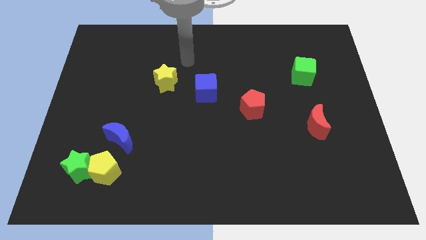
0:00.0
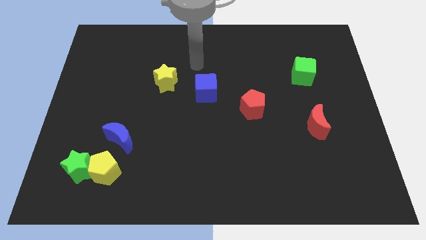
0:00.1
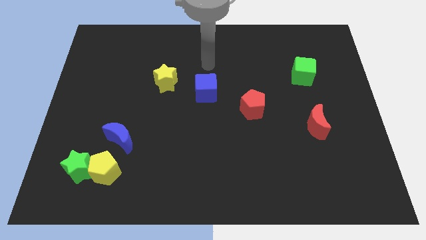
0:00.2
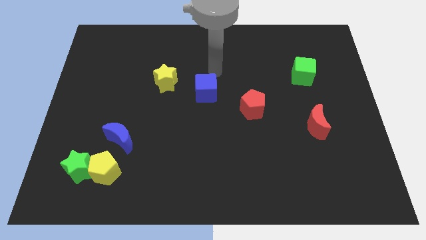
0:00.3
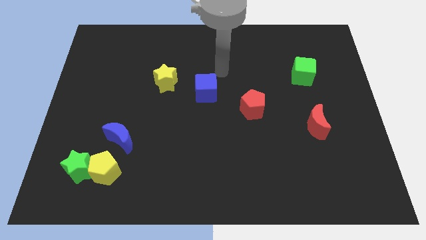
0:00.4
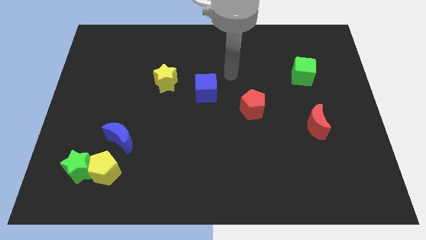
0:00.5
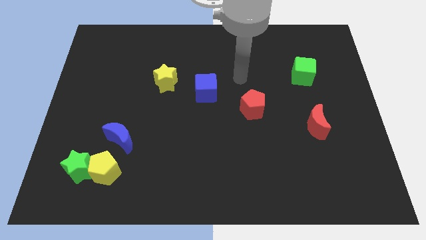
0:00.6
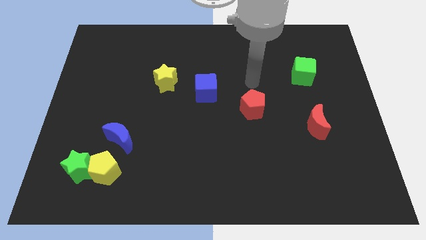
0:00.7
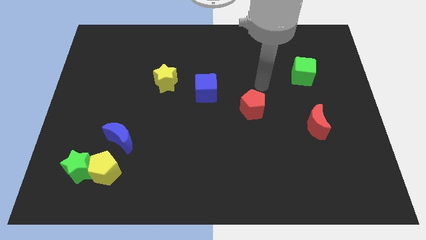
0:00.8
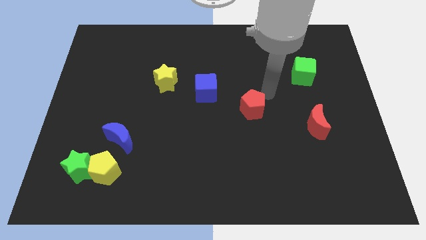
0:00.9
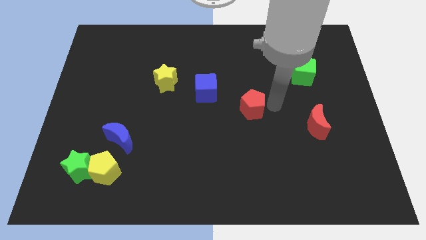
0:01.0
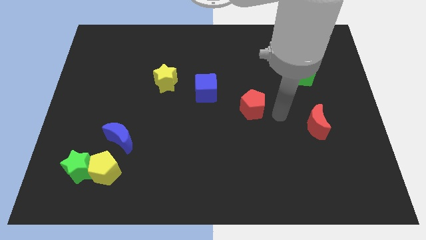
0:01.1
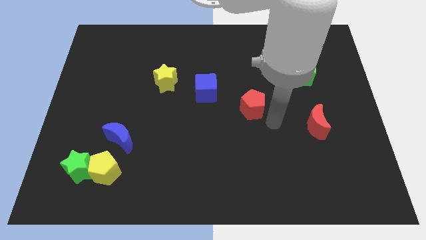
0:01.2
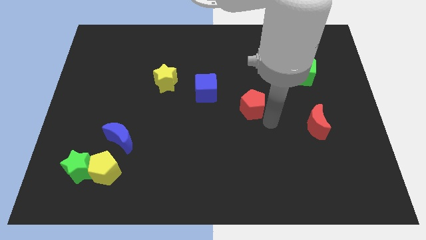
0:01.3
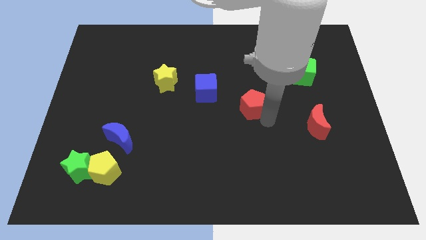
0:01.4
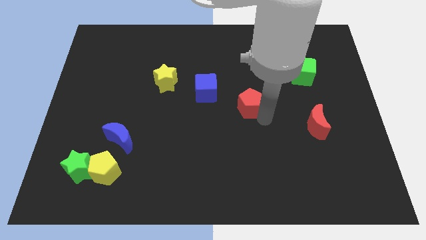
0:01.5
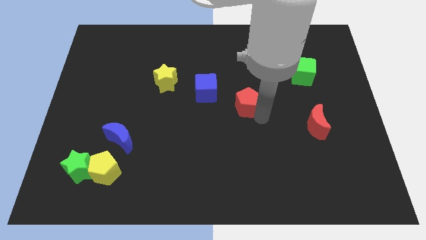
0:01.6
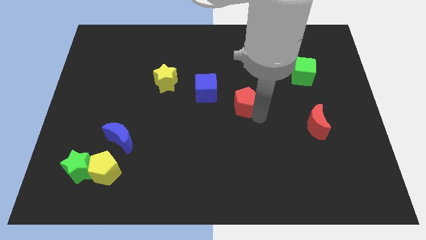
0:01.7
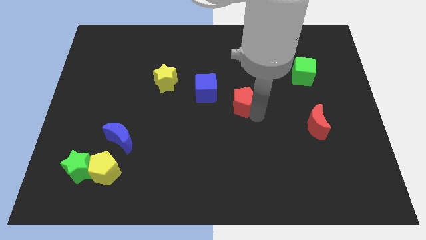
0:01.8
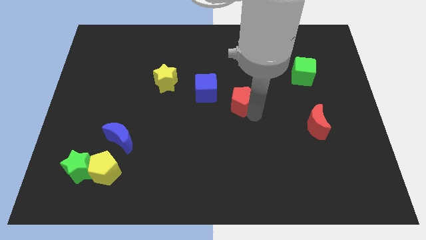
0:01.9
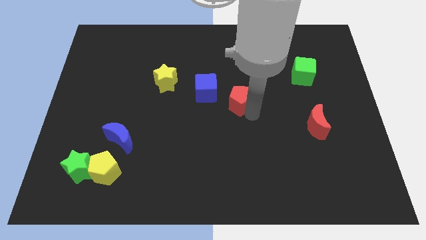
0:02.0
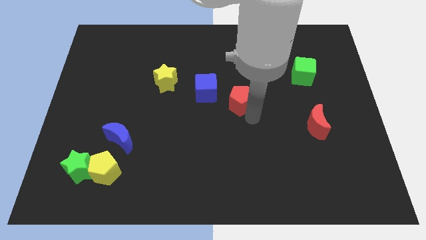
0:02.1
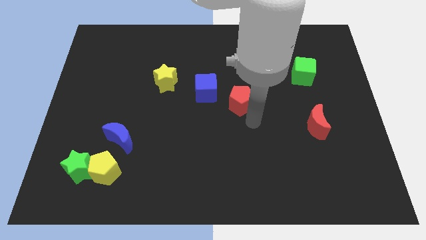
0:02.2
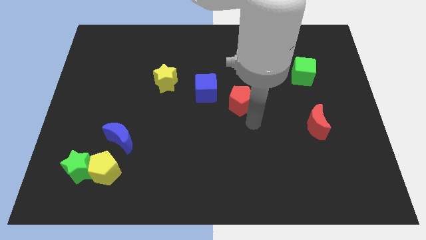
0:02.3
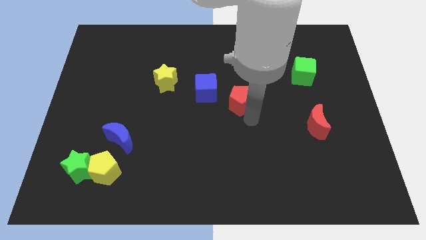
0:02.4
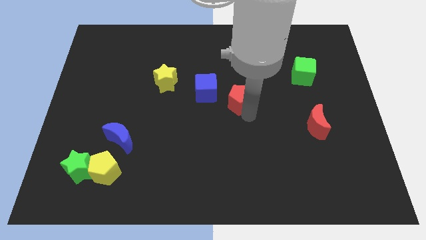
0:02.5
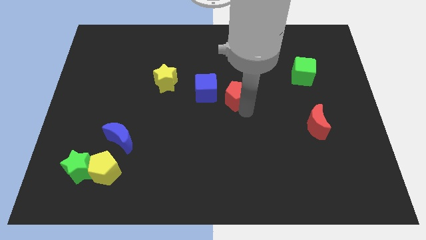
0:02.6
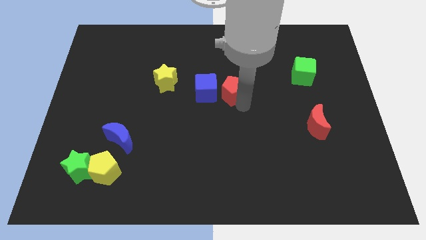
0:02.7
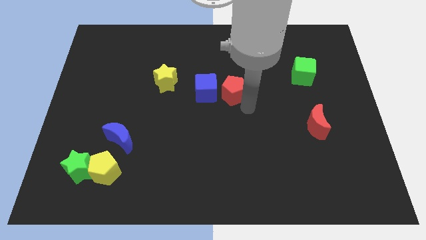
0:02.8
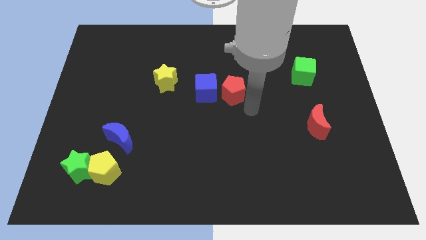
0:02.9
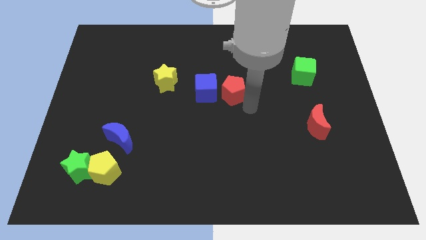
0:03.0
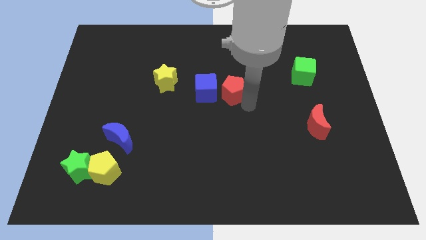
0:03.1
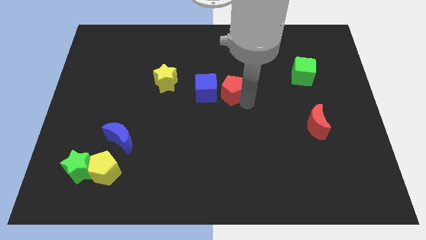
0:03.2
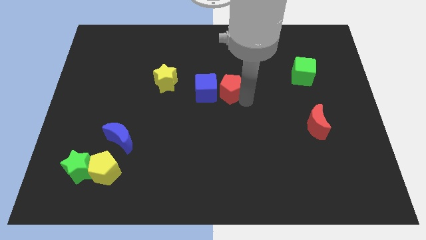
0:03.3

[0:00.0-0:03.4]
move the red pentagon up and left slightly

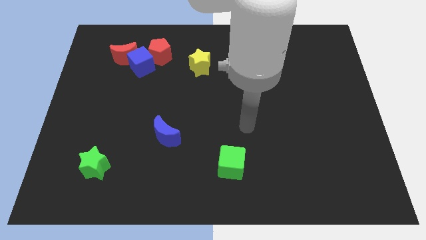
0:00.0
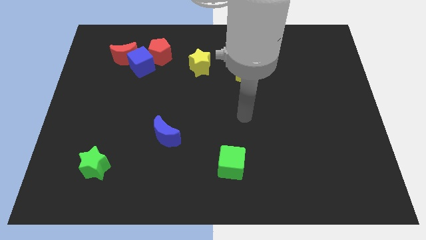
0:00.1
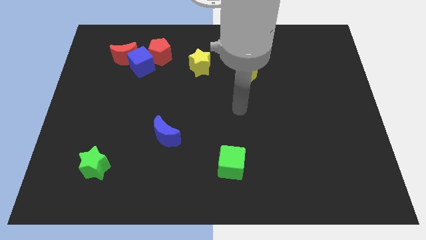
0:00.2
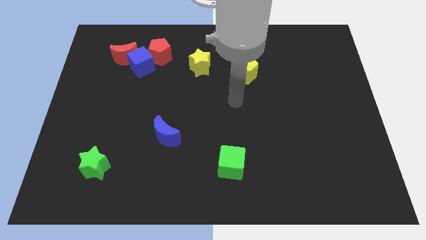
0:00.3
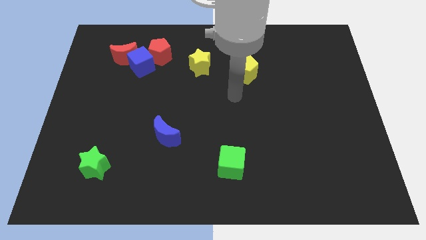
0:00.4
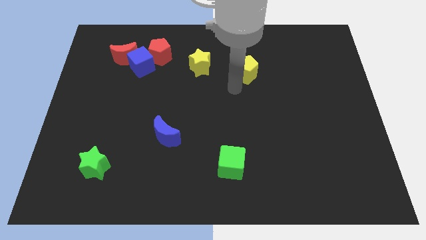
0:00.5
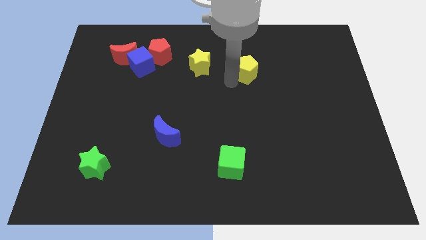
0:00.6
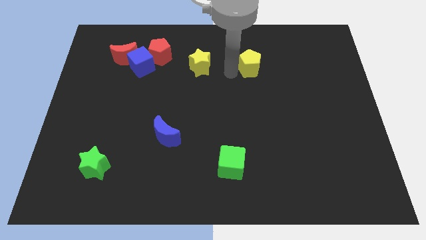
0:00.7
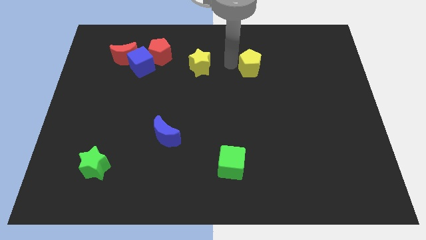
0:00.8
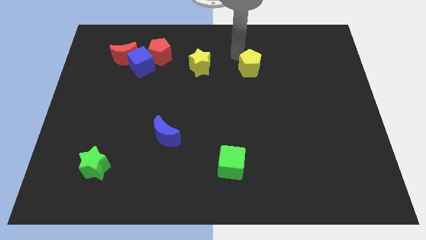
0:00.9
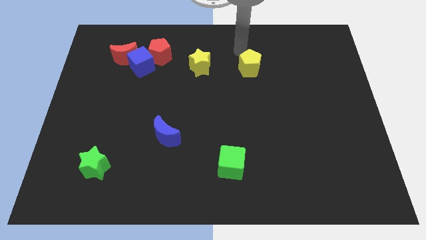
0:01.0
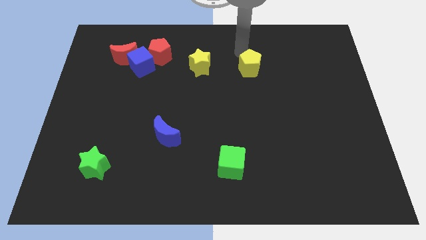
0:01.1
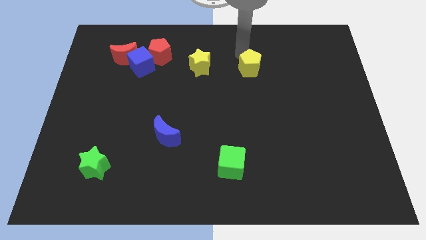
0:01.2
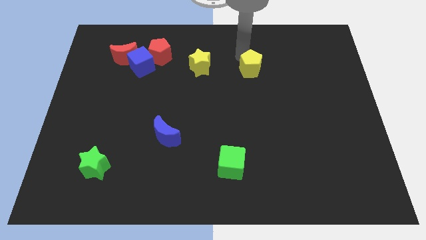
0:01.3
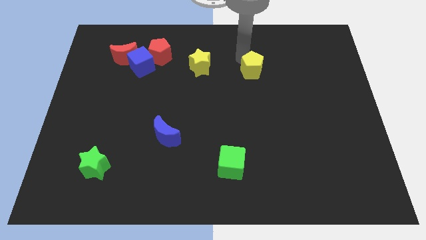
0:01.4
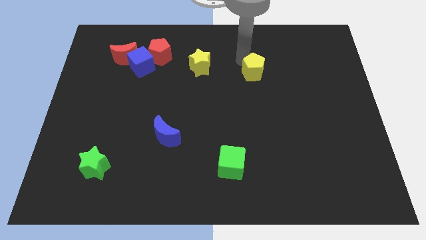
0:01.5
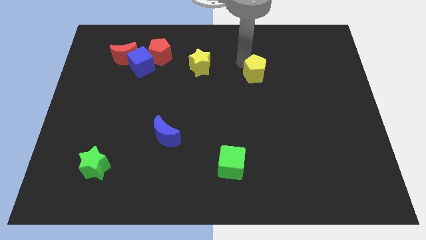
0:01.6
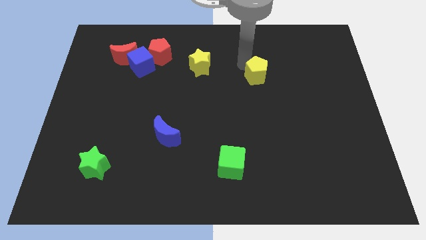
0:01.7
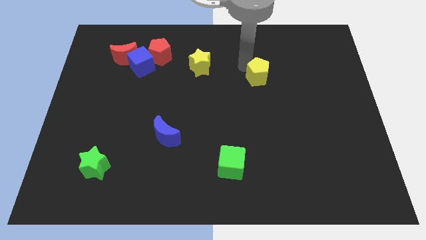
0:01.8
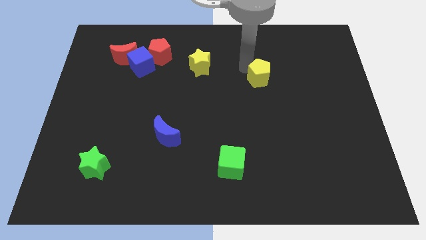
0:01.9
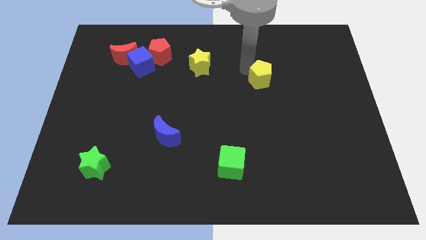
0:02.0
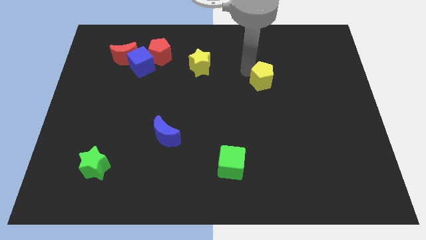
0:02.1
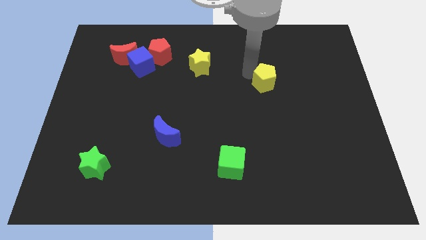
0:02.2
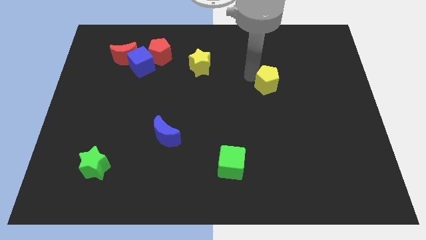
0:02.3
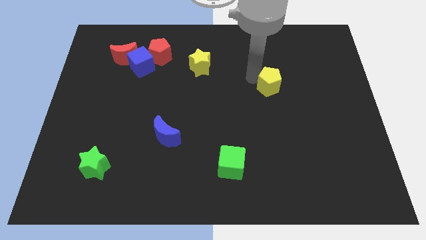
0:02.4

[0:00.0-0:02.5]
slightly move the yellow pentagon downwards and then to the right

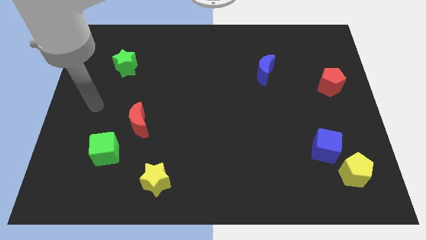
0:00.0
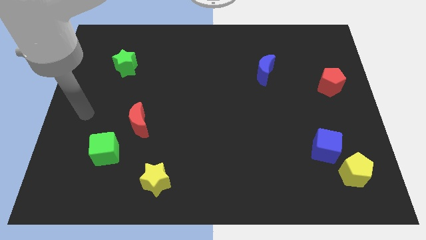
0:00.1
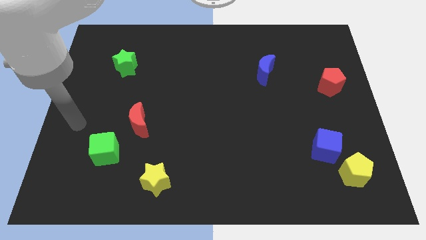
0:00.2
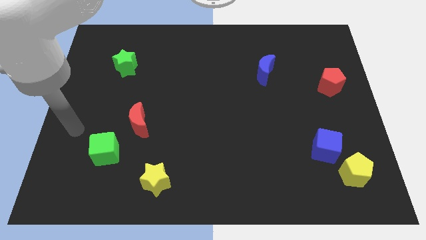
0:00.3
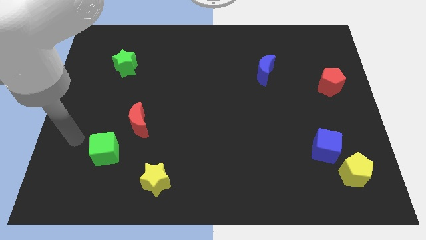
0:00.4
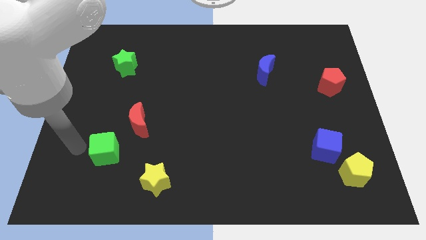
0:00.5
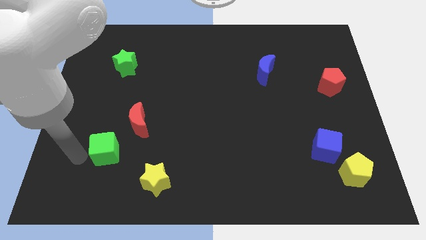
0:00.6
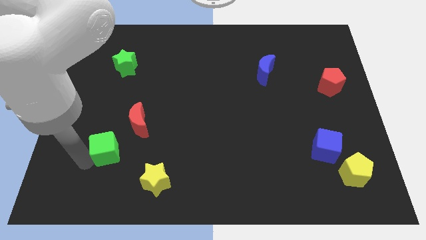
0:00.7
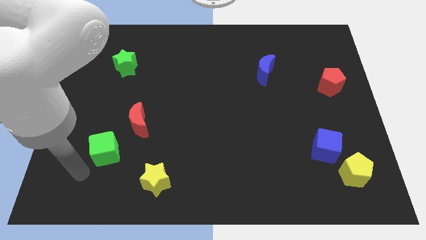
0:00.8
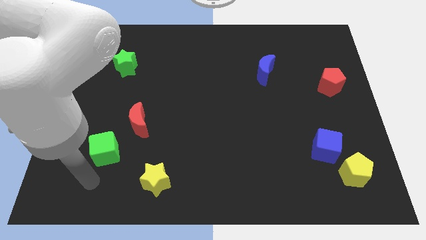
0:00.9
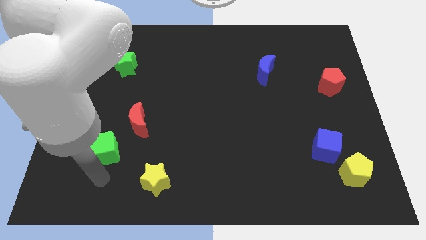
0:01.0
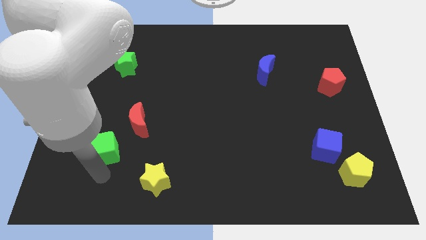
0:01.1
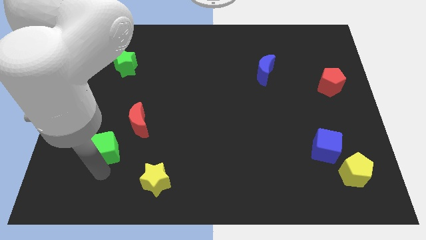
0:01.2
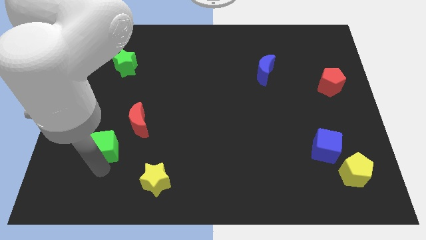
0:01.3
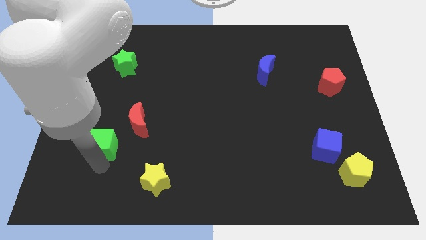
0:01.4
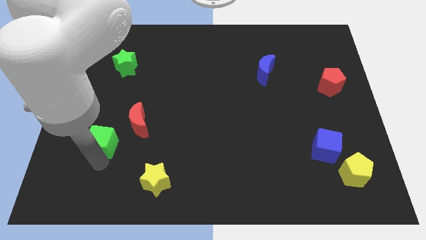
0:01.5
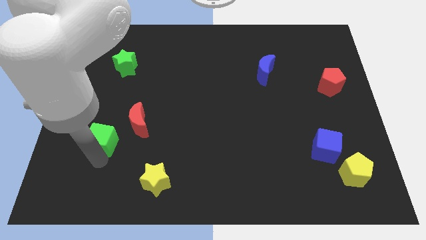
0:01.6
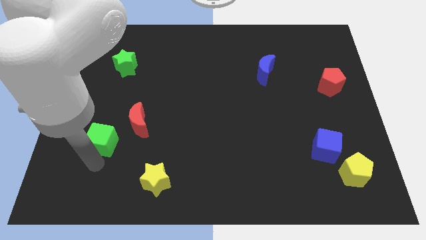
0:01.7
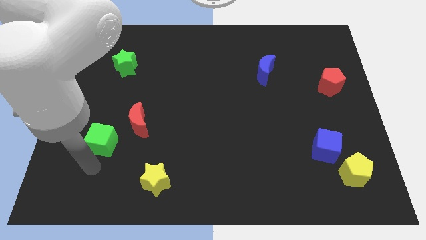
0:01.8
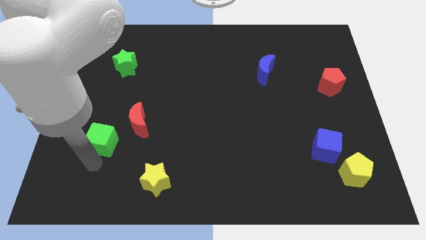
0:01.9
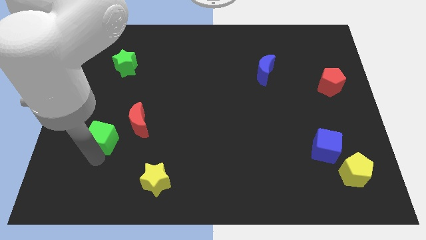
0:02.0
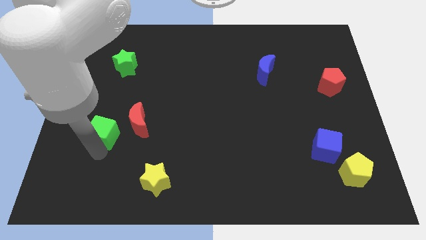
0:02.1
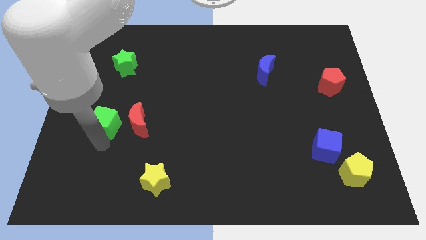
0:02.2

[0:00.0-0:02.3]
push the green cube somewhat up
